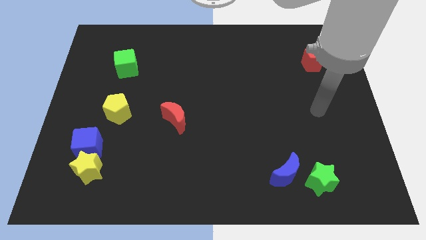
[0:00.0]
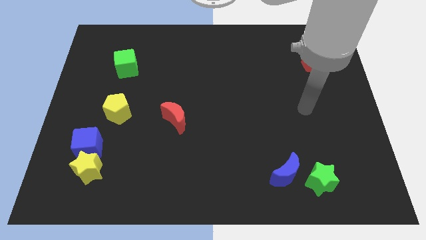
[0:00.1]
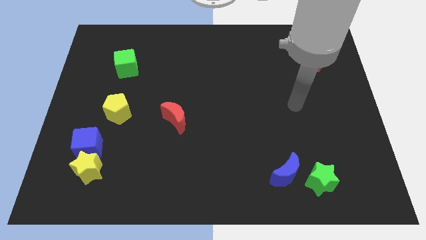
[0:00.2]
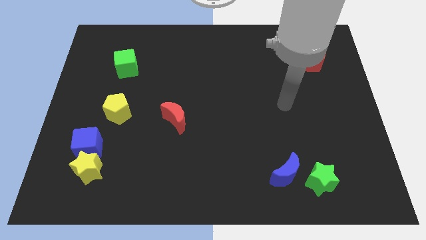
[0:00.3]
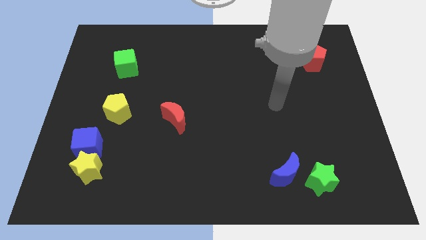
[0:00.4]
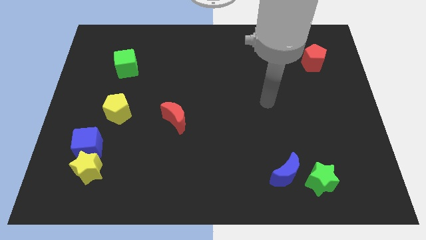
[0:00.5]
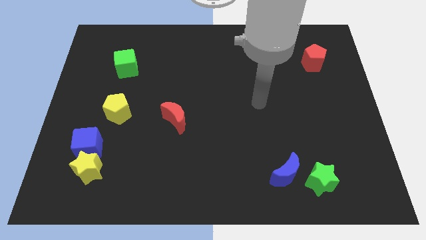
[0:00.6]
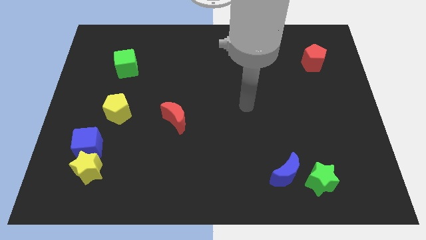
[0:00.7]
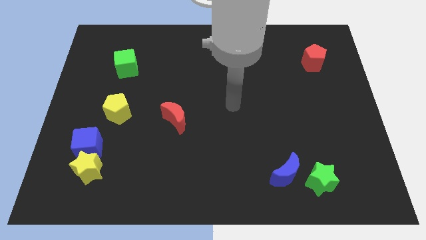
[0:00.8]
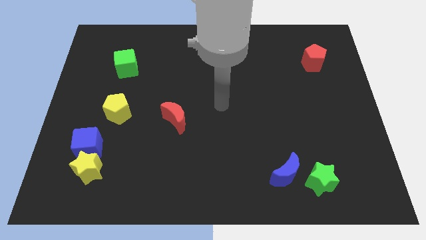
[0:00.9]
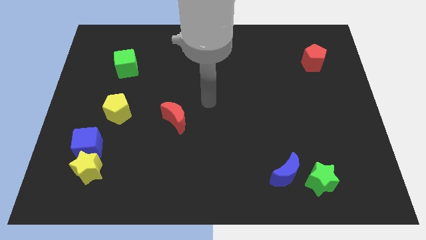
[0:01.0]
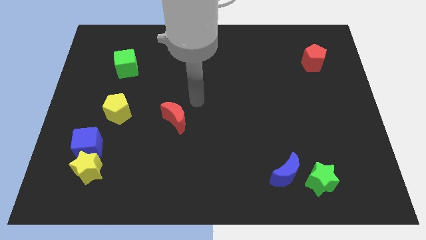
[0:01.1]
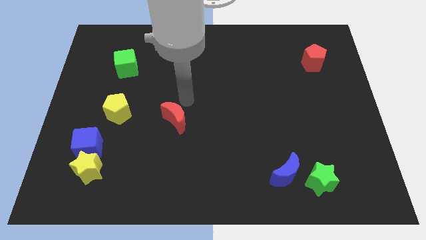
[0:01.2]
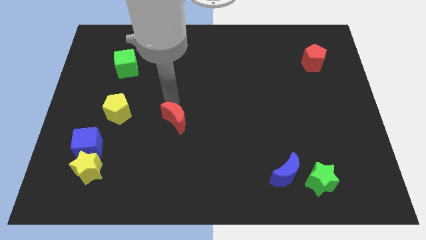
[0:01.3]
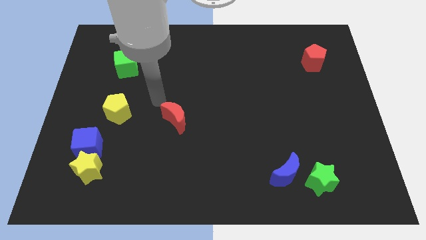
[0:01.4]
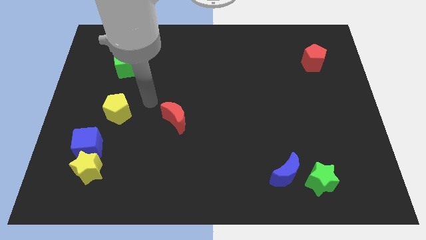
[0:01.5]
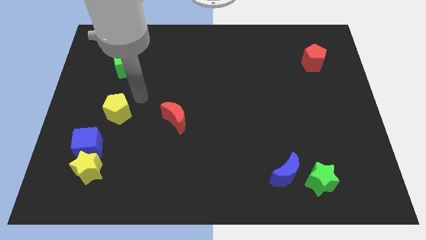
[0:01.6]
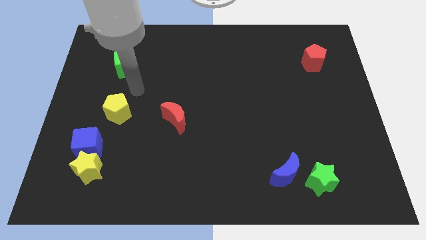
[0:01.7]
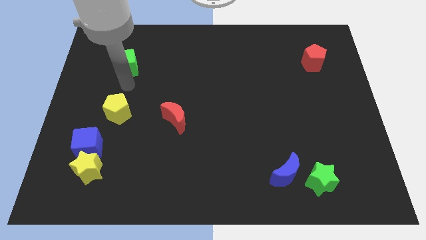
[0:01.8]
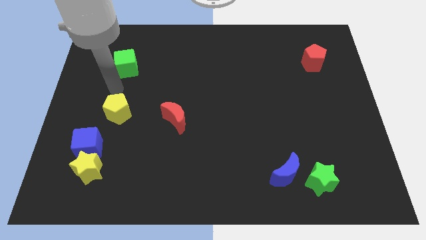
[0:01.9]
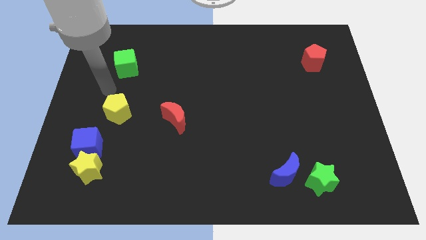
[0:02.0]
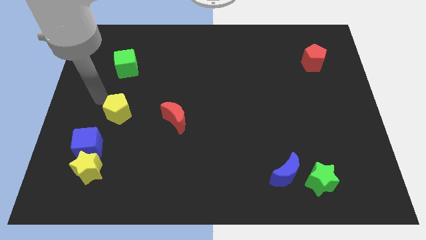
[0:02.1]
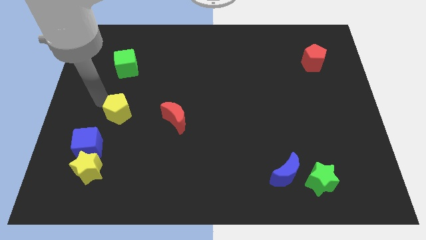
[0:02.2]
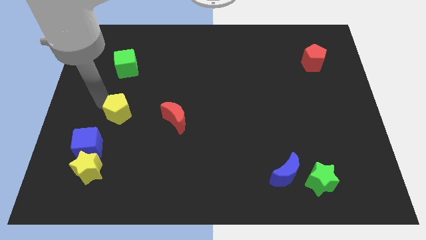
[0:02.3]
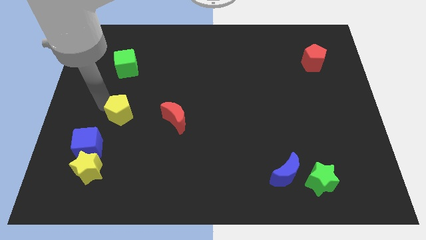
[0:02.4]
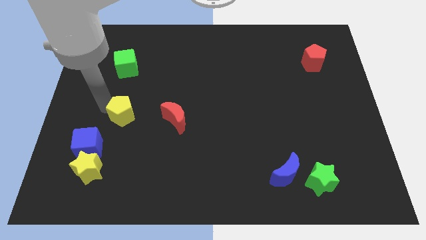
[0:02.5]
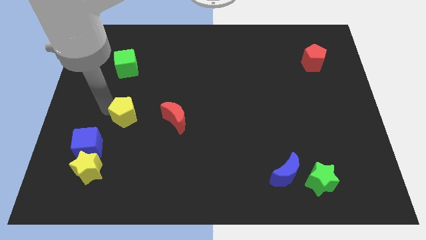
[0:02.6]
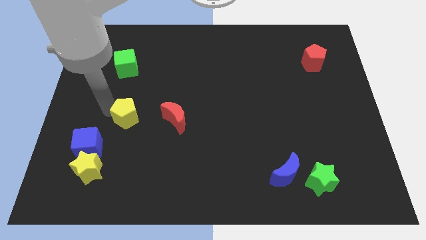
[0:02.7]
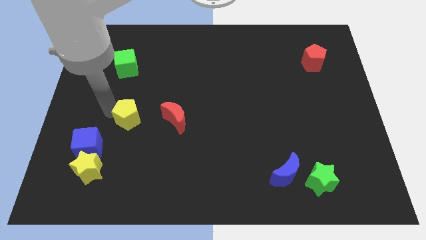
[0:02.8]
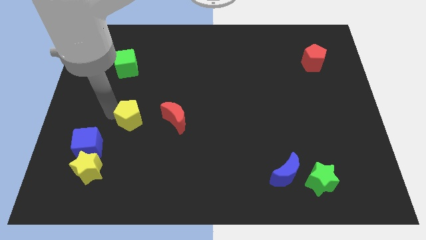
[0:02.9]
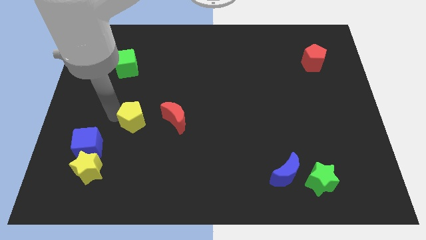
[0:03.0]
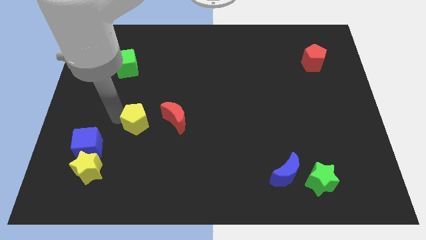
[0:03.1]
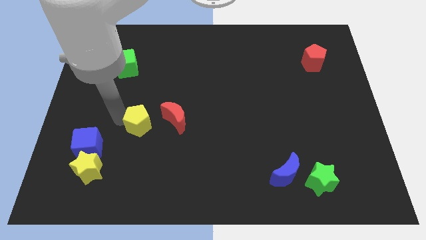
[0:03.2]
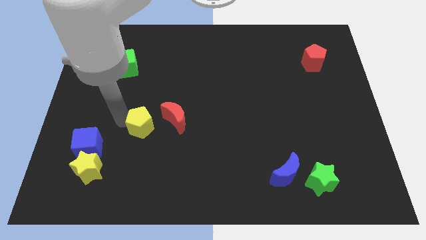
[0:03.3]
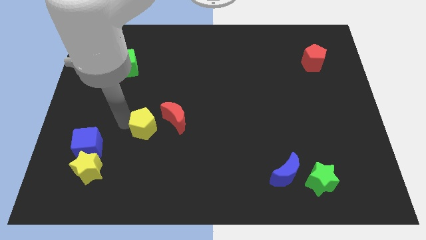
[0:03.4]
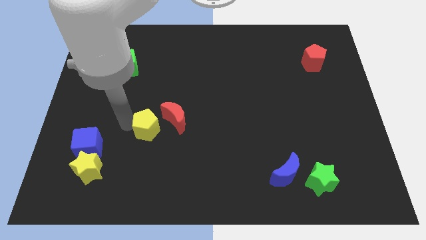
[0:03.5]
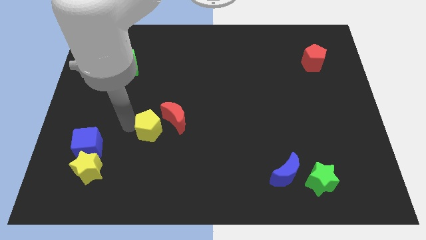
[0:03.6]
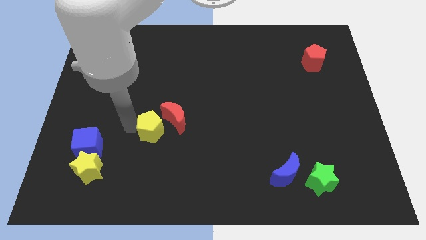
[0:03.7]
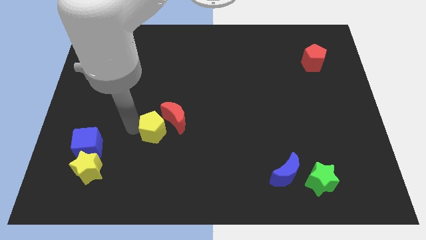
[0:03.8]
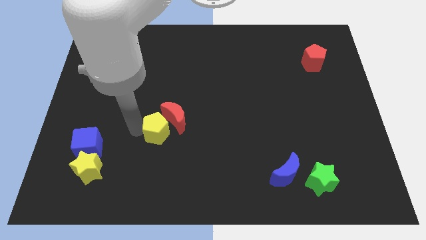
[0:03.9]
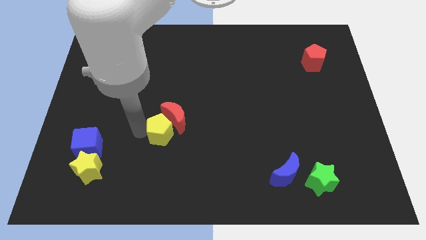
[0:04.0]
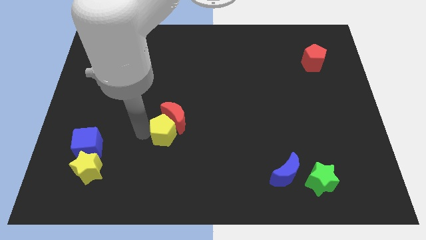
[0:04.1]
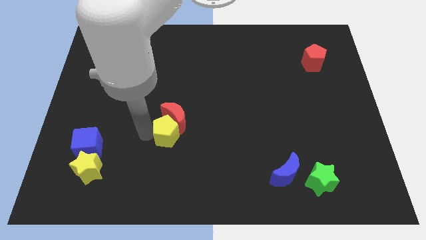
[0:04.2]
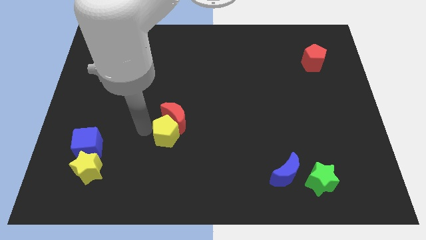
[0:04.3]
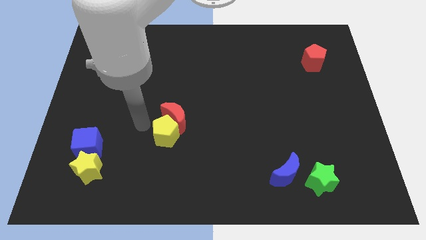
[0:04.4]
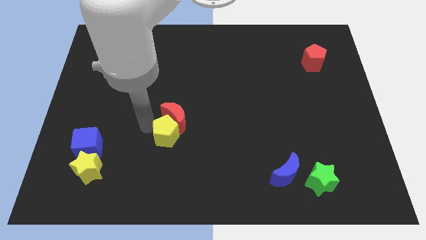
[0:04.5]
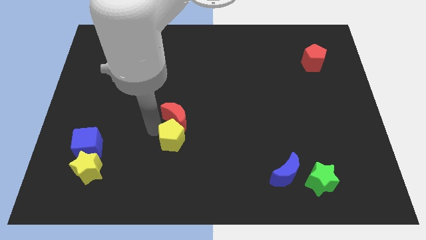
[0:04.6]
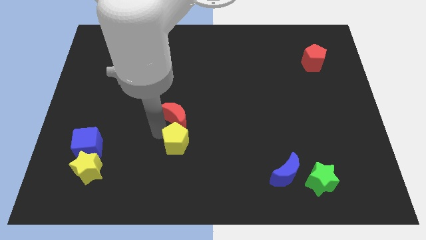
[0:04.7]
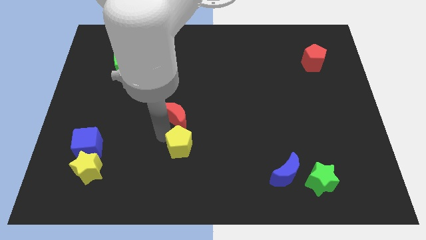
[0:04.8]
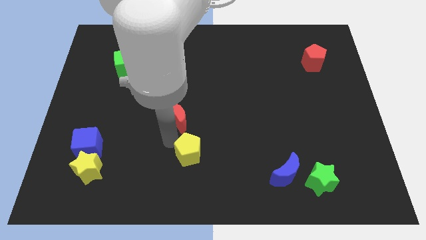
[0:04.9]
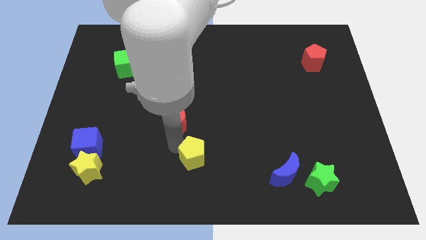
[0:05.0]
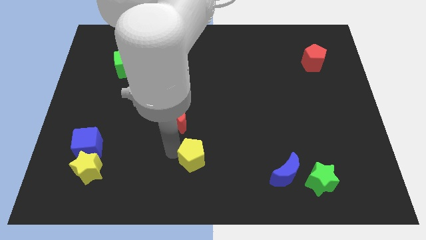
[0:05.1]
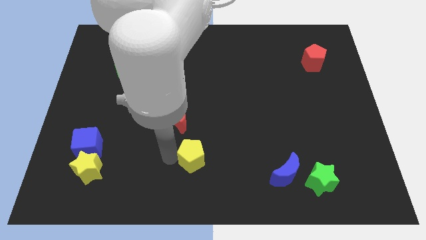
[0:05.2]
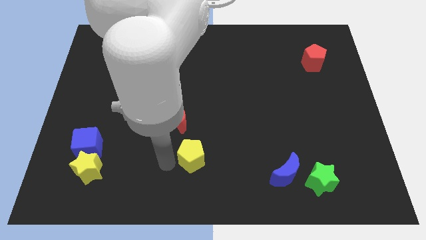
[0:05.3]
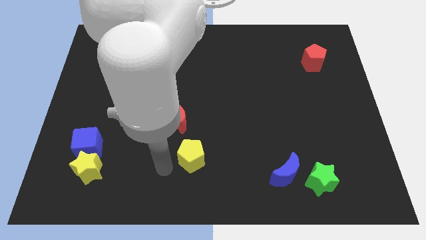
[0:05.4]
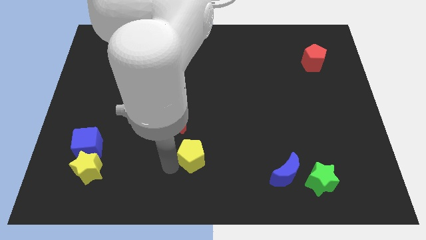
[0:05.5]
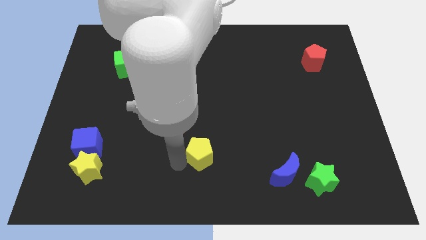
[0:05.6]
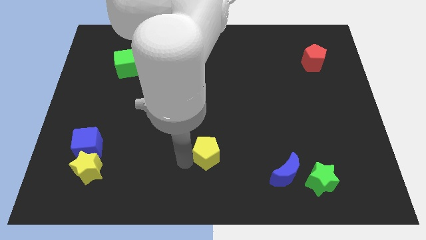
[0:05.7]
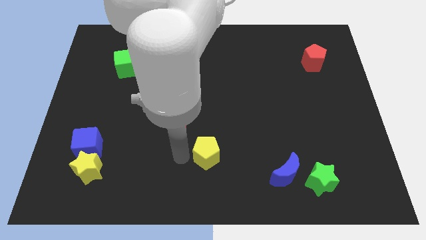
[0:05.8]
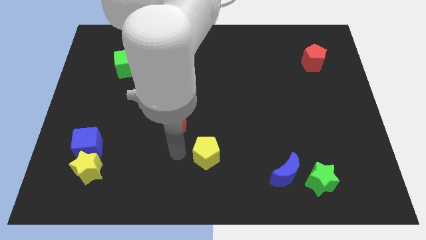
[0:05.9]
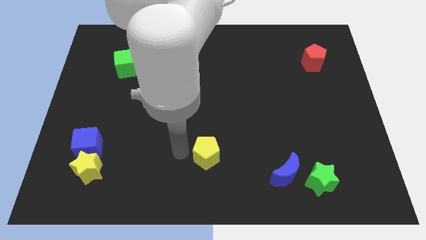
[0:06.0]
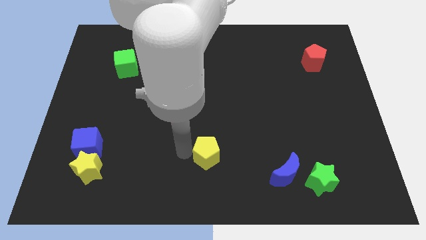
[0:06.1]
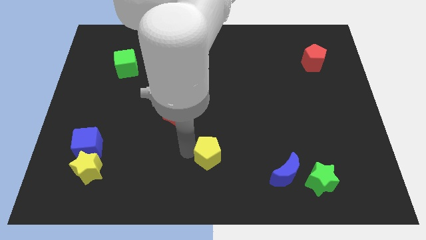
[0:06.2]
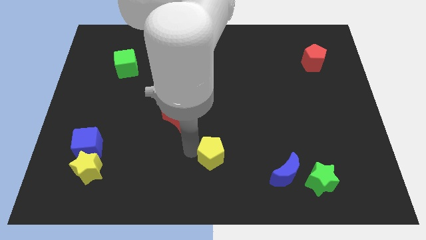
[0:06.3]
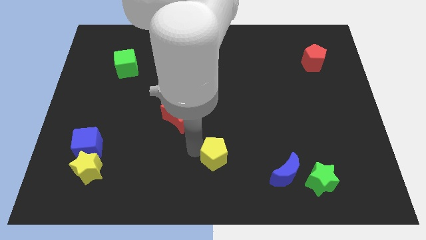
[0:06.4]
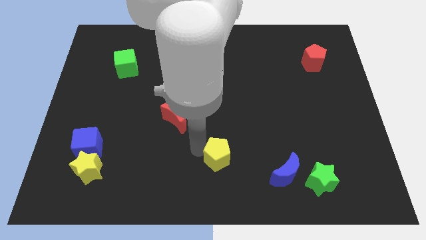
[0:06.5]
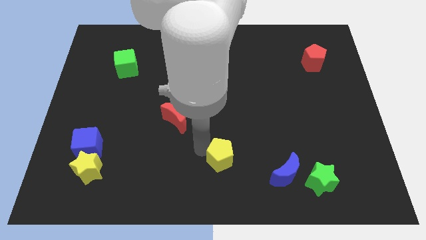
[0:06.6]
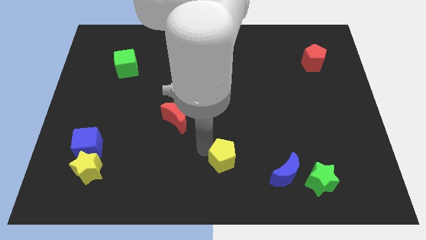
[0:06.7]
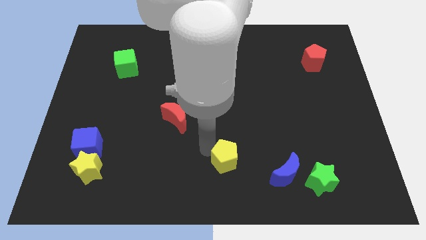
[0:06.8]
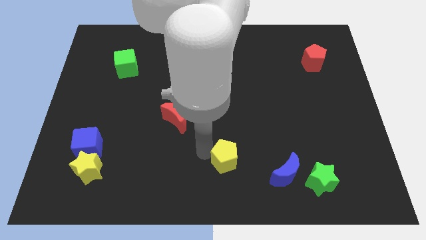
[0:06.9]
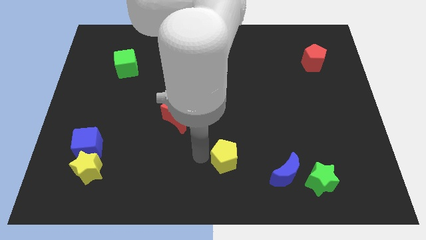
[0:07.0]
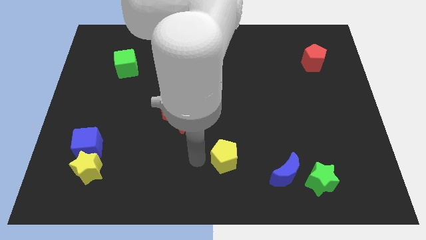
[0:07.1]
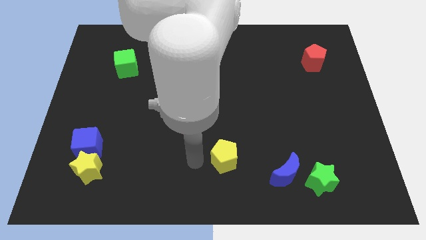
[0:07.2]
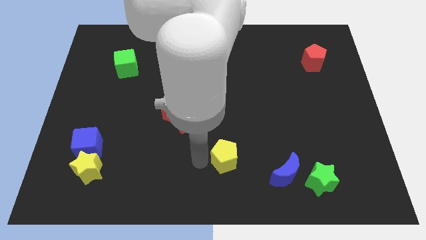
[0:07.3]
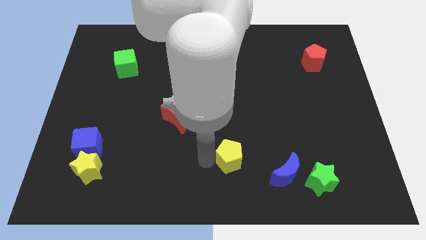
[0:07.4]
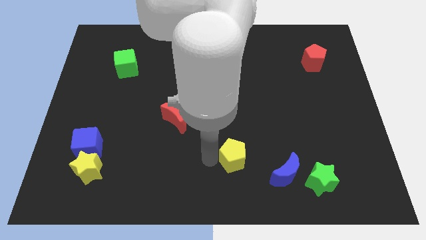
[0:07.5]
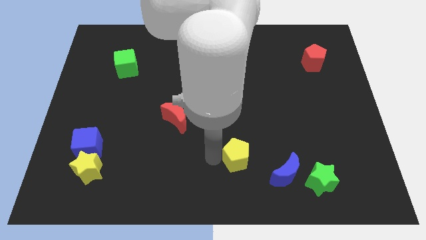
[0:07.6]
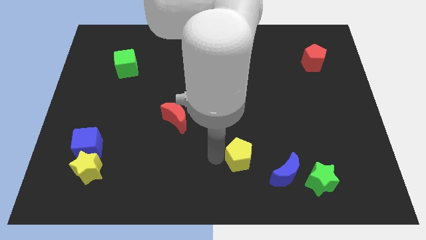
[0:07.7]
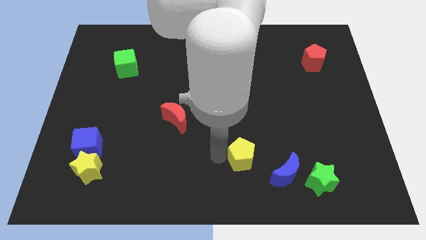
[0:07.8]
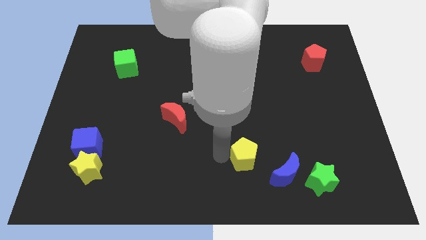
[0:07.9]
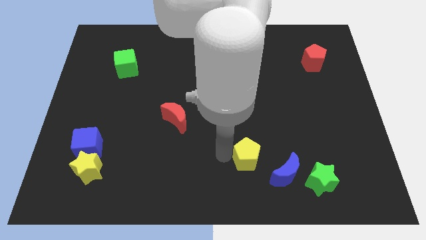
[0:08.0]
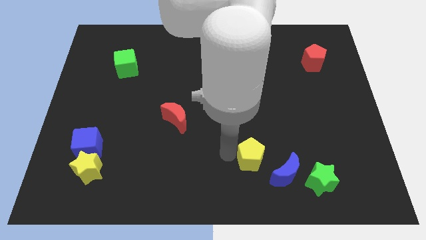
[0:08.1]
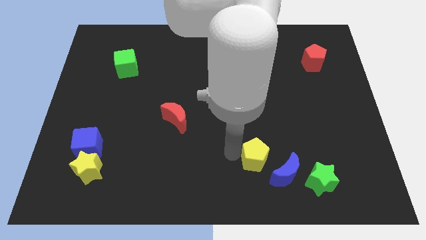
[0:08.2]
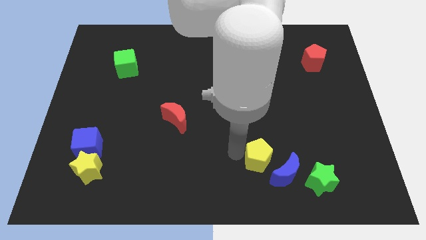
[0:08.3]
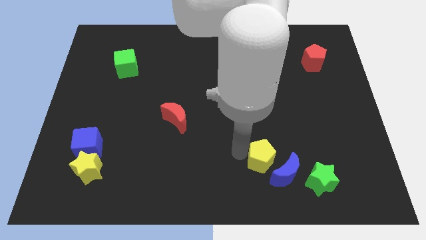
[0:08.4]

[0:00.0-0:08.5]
push the yellow pentagon towards the blue moon
